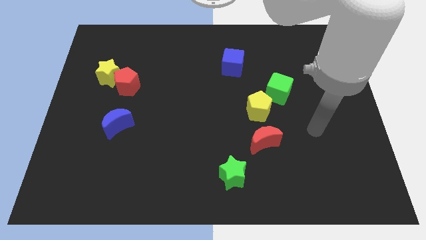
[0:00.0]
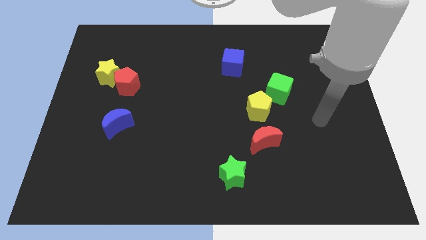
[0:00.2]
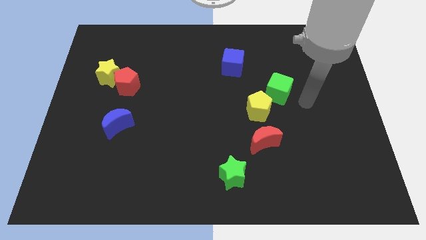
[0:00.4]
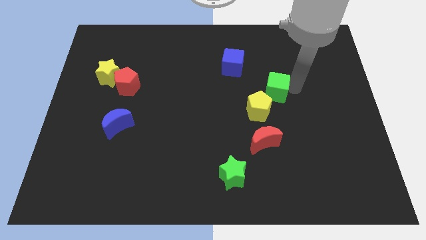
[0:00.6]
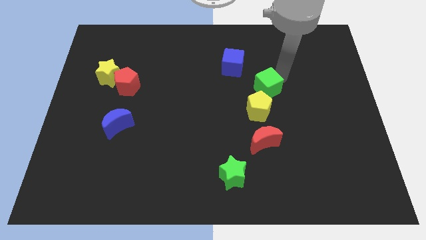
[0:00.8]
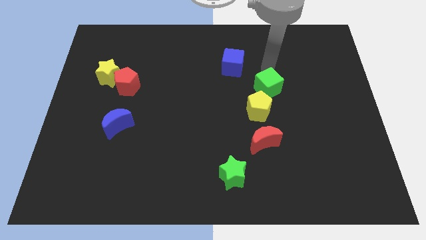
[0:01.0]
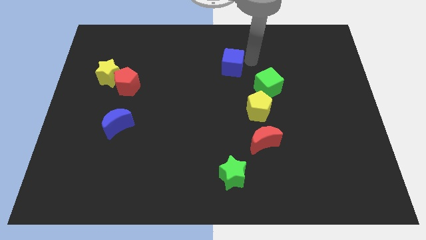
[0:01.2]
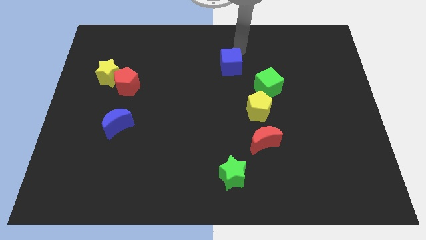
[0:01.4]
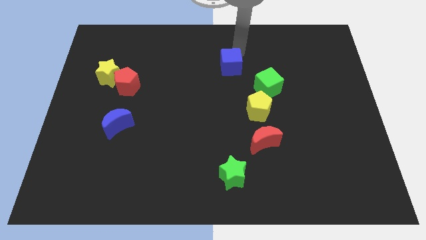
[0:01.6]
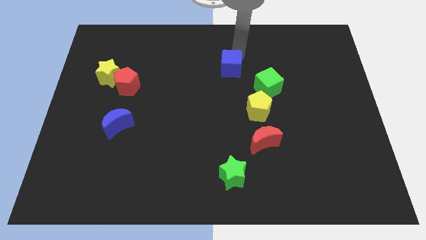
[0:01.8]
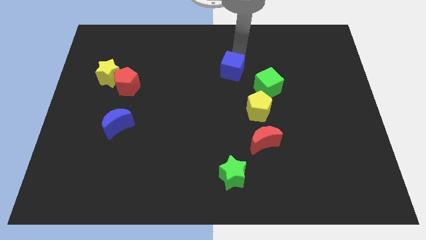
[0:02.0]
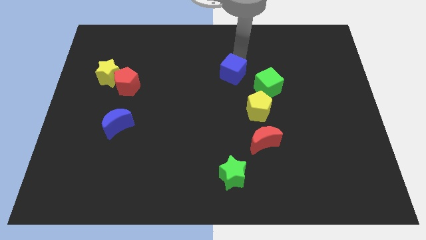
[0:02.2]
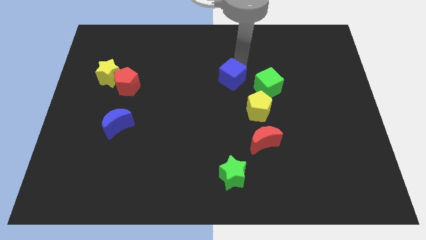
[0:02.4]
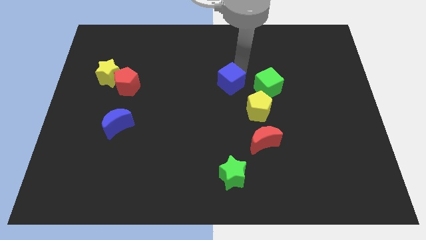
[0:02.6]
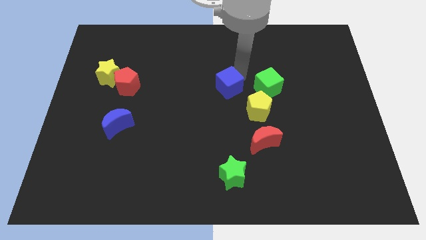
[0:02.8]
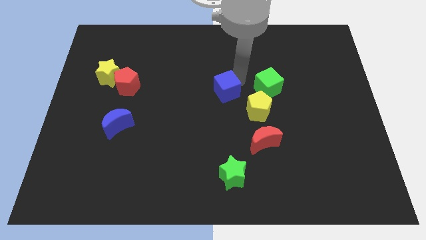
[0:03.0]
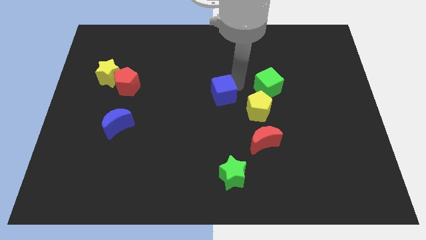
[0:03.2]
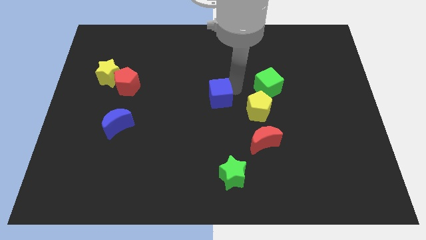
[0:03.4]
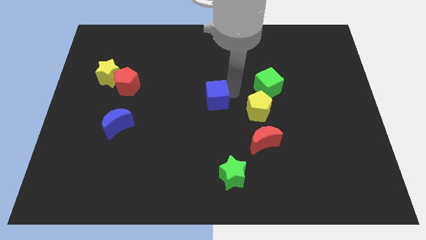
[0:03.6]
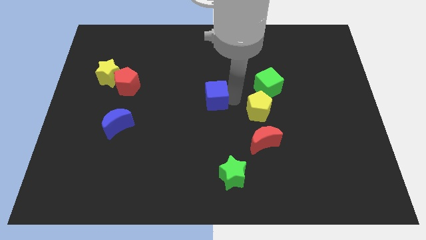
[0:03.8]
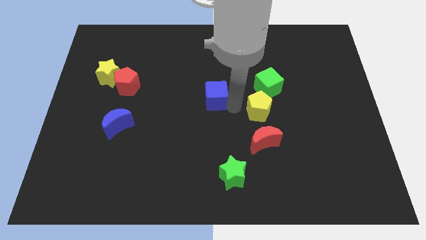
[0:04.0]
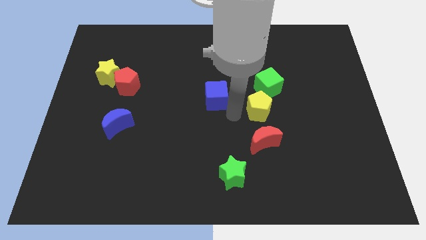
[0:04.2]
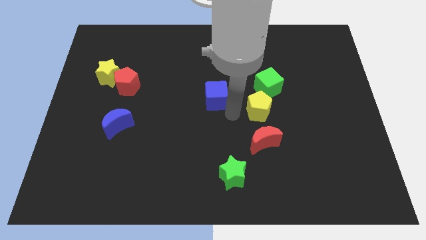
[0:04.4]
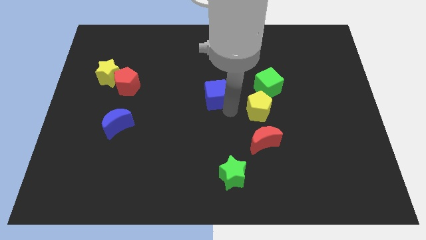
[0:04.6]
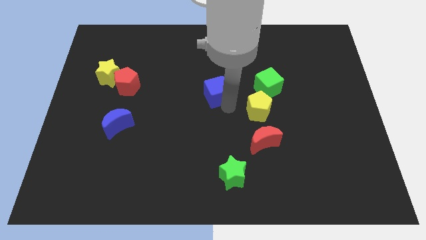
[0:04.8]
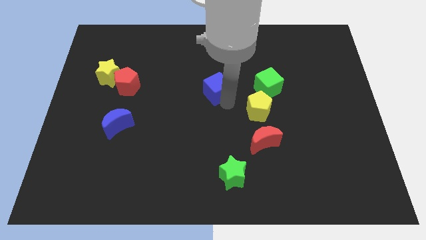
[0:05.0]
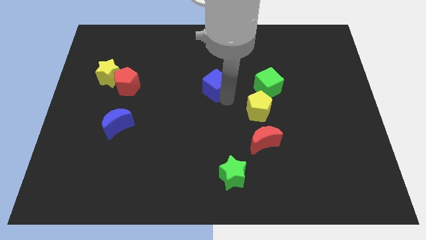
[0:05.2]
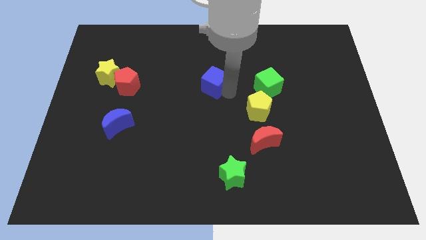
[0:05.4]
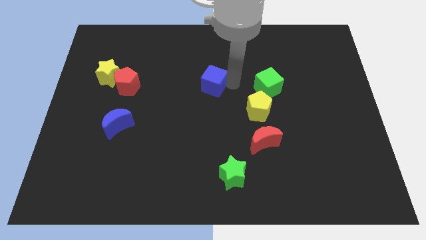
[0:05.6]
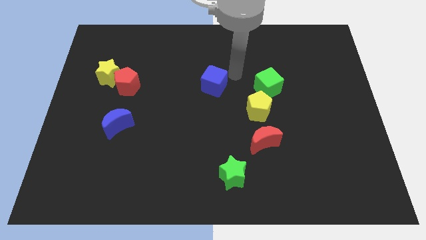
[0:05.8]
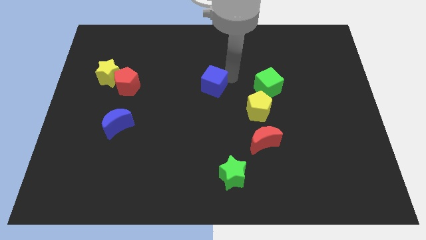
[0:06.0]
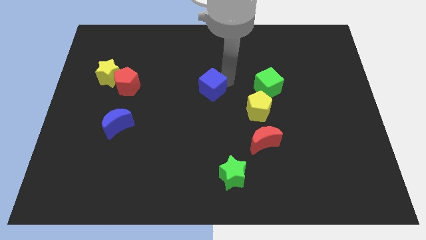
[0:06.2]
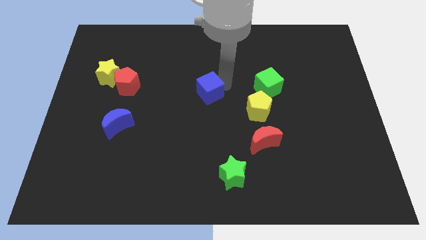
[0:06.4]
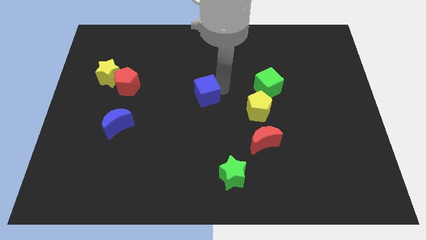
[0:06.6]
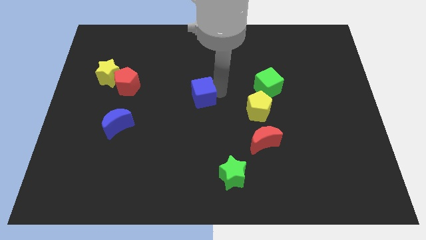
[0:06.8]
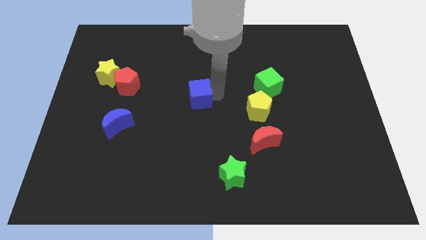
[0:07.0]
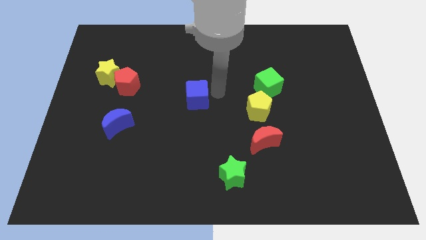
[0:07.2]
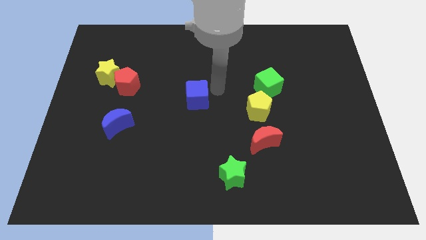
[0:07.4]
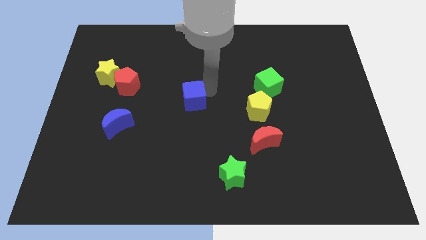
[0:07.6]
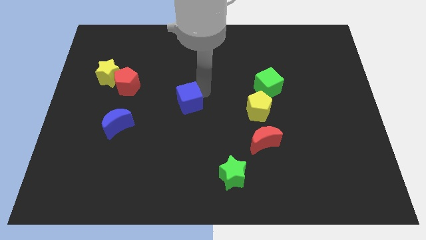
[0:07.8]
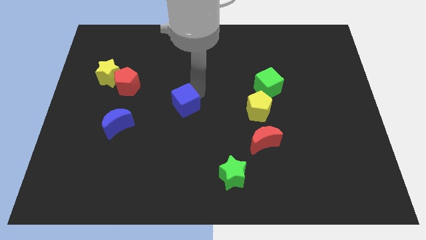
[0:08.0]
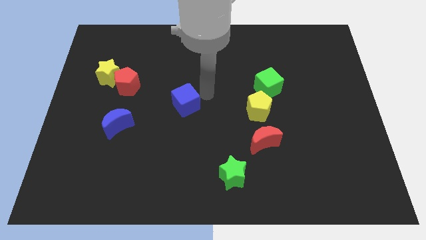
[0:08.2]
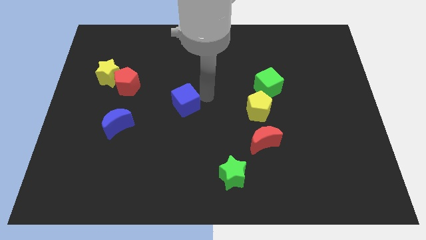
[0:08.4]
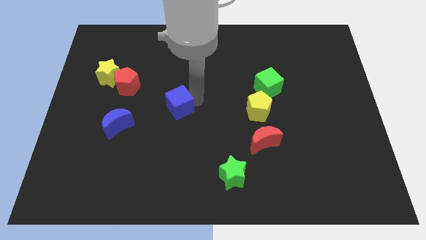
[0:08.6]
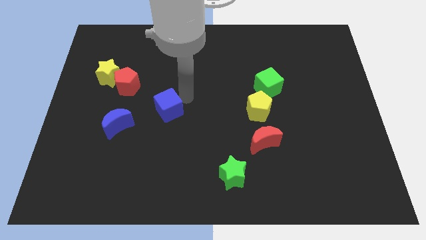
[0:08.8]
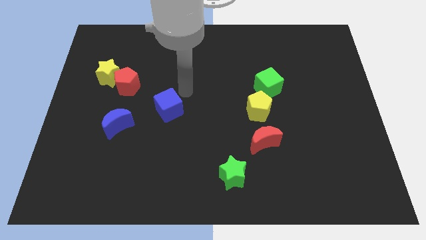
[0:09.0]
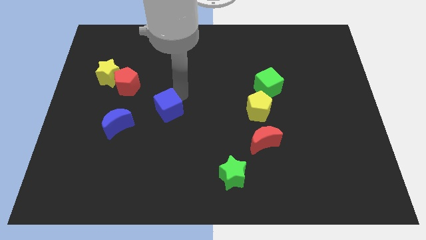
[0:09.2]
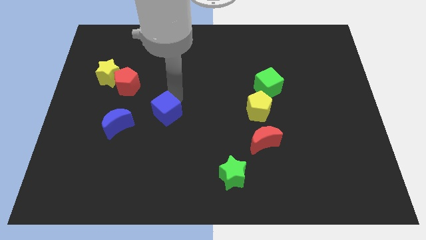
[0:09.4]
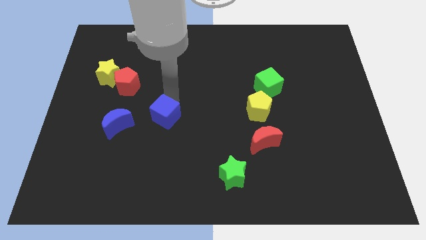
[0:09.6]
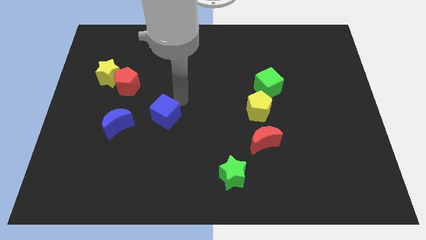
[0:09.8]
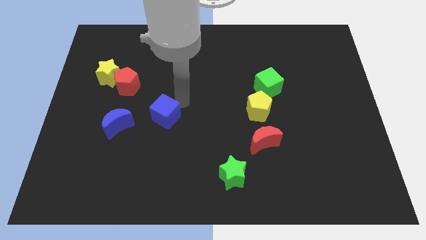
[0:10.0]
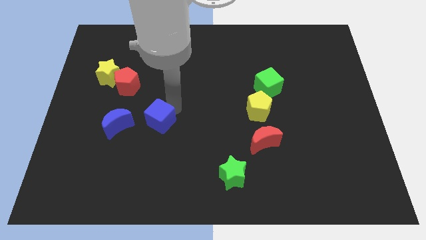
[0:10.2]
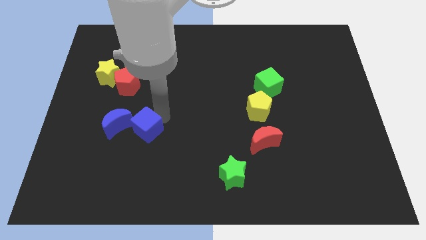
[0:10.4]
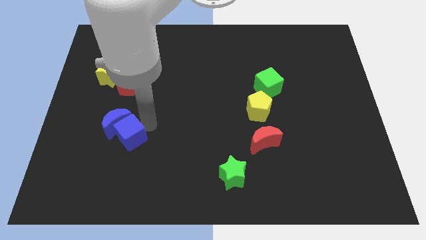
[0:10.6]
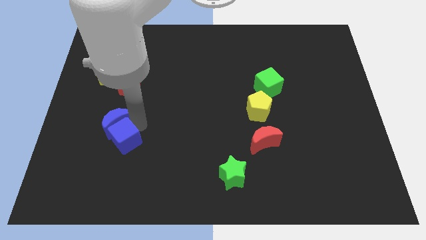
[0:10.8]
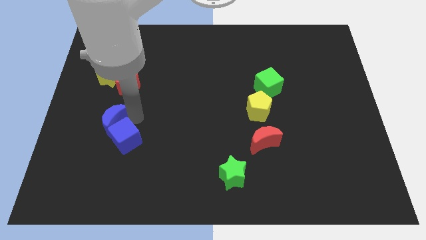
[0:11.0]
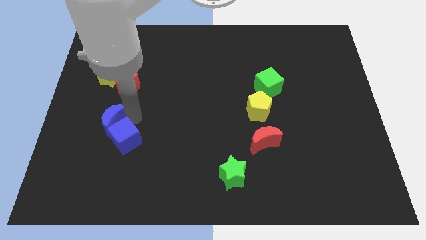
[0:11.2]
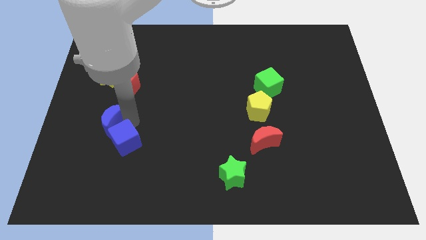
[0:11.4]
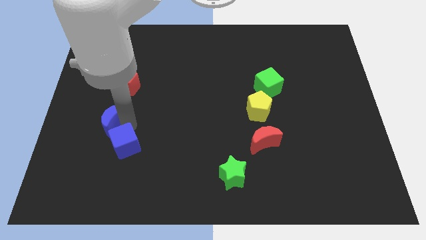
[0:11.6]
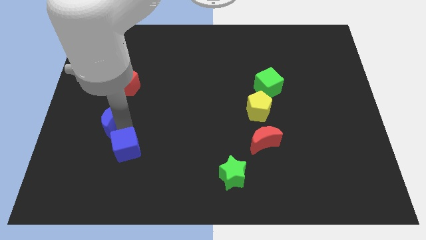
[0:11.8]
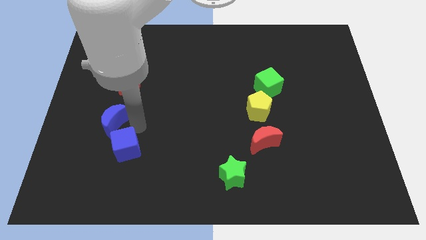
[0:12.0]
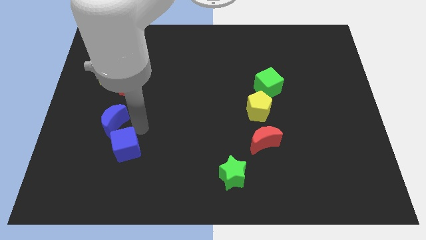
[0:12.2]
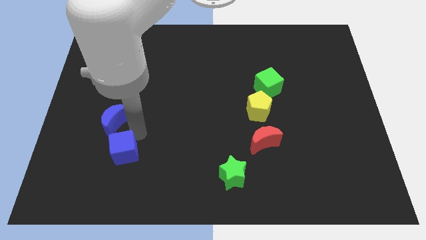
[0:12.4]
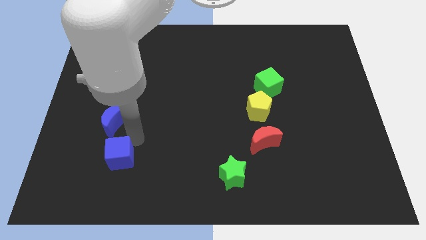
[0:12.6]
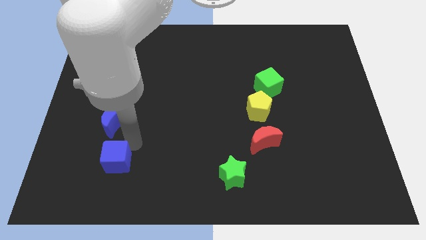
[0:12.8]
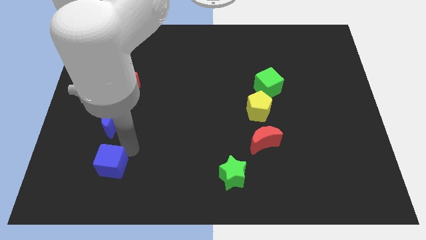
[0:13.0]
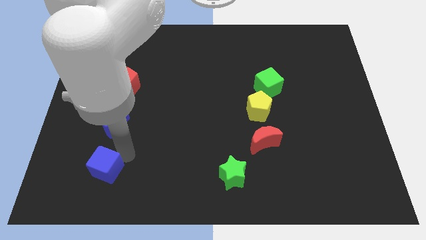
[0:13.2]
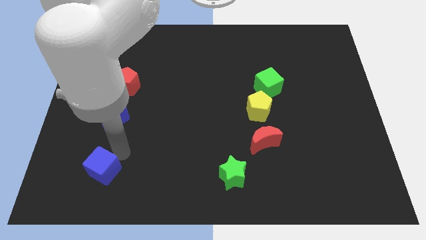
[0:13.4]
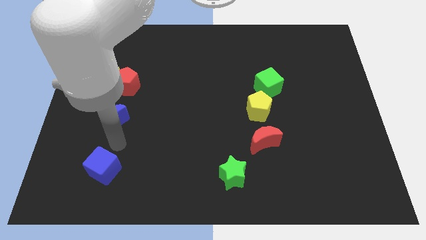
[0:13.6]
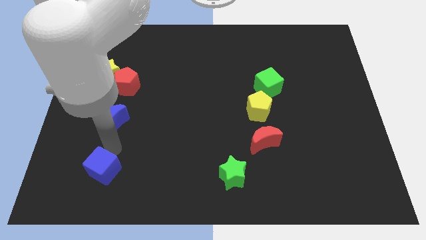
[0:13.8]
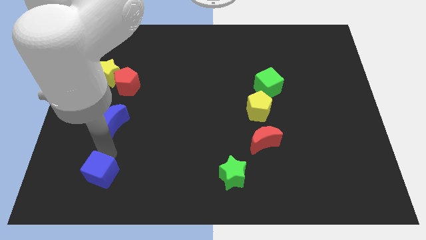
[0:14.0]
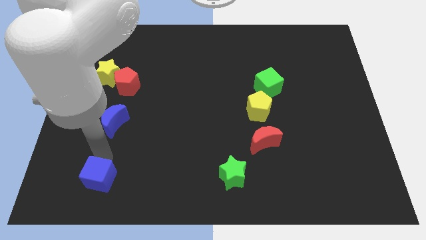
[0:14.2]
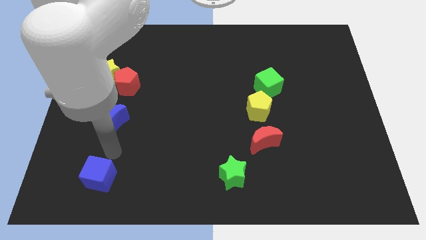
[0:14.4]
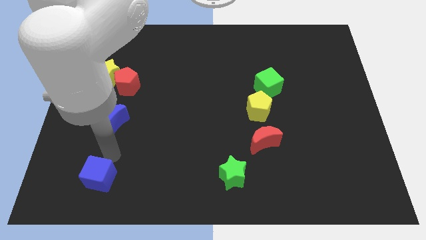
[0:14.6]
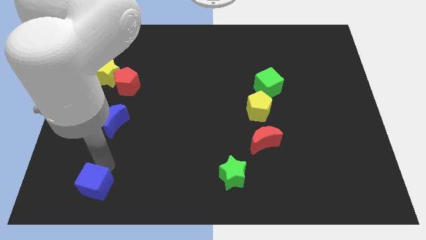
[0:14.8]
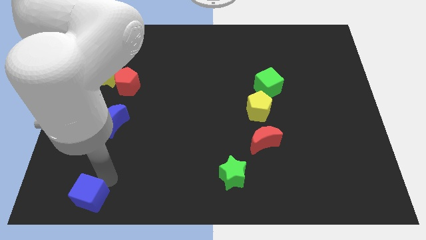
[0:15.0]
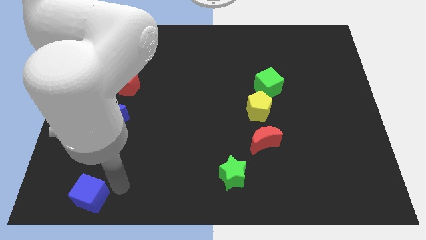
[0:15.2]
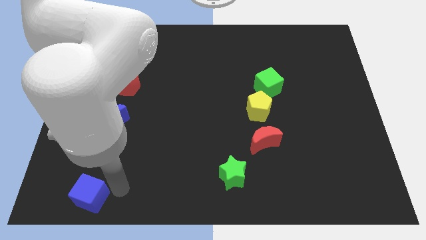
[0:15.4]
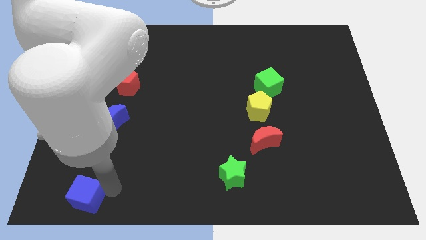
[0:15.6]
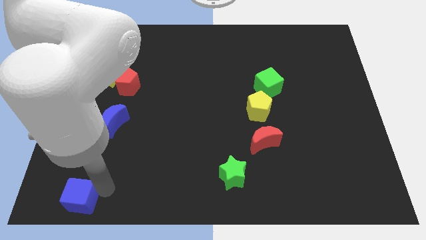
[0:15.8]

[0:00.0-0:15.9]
put the blue cube to the bottom left corner
